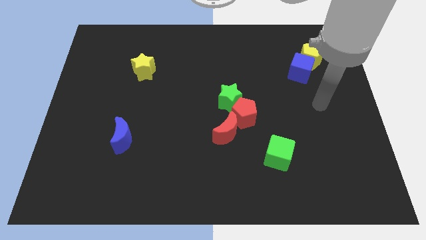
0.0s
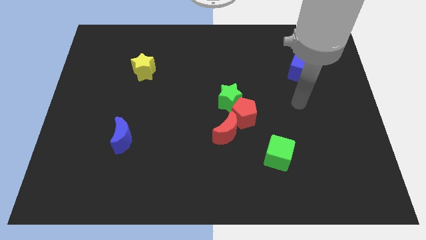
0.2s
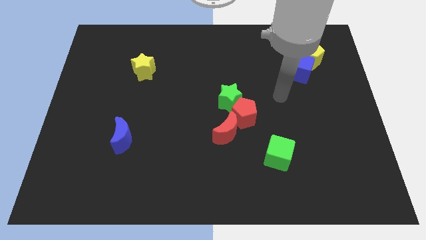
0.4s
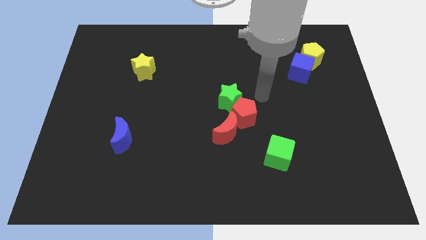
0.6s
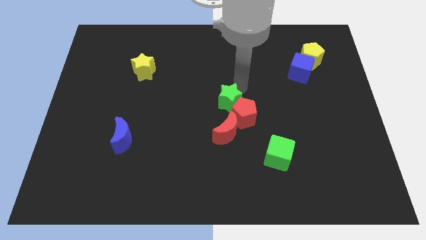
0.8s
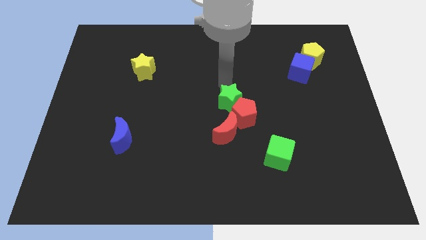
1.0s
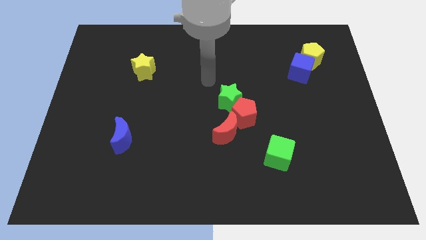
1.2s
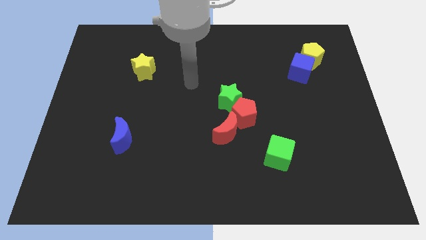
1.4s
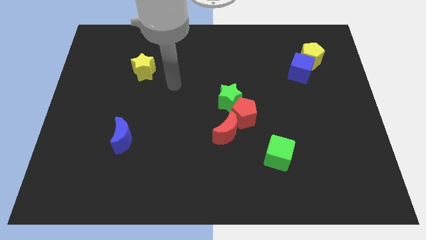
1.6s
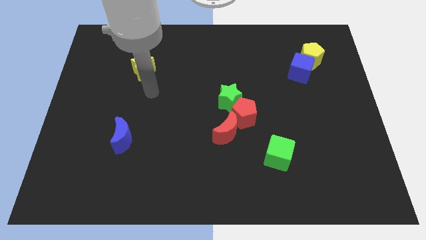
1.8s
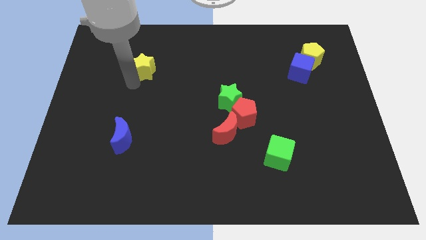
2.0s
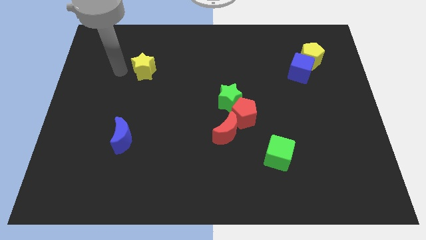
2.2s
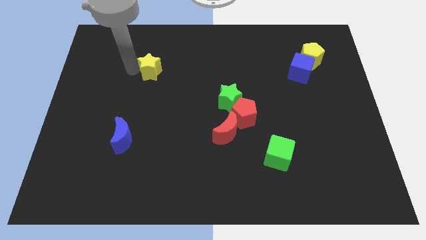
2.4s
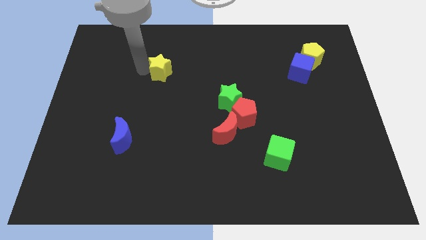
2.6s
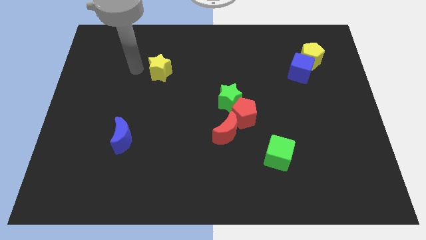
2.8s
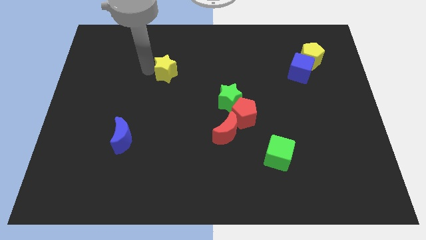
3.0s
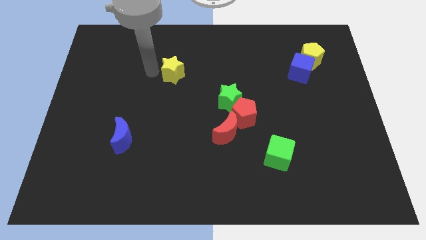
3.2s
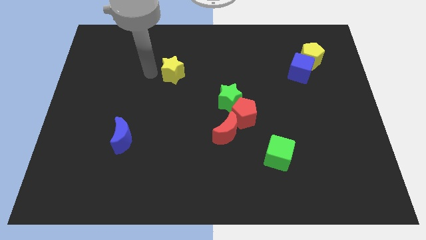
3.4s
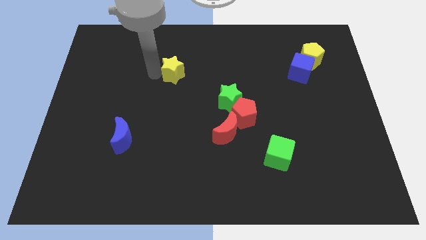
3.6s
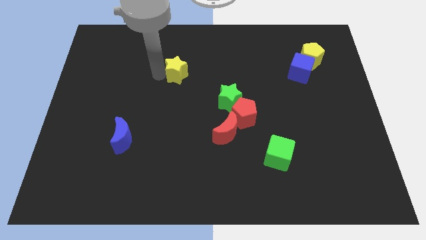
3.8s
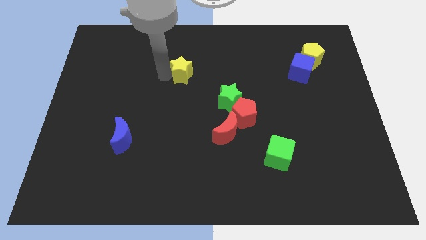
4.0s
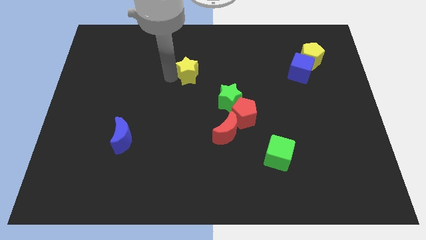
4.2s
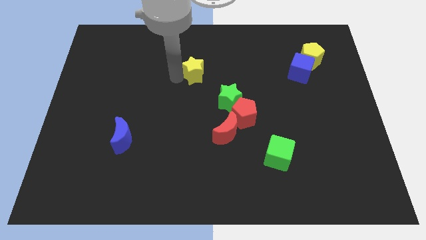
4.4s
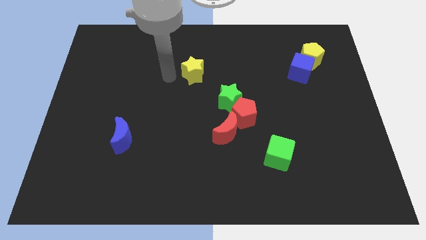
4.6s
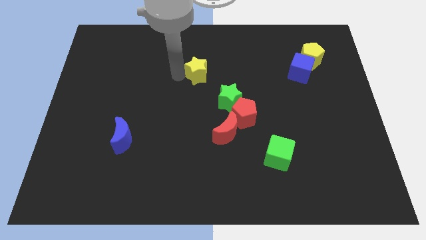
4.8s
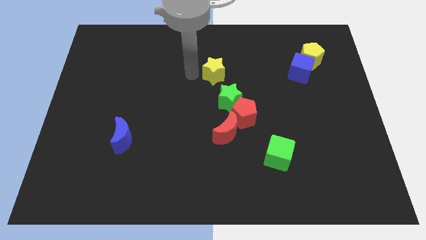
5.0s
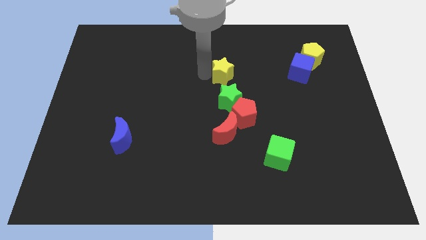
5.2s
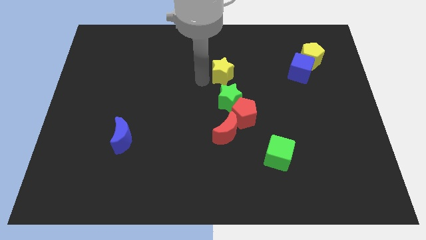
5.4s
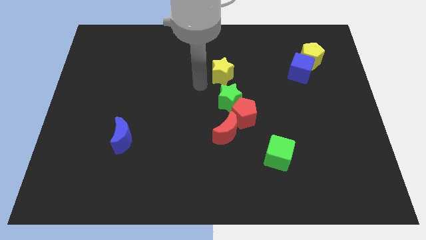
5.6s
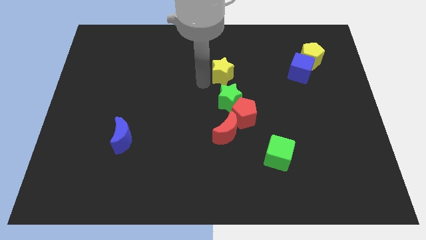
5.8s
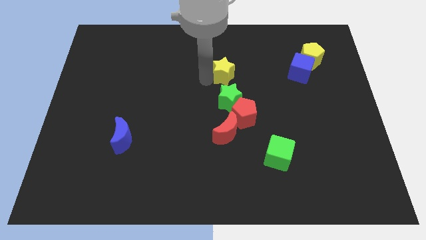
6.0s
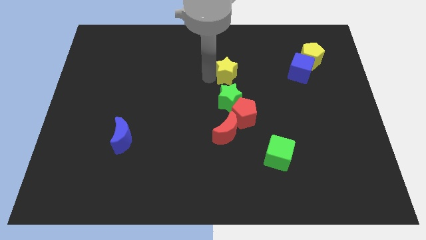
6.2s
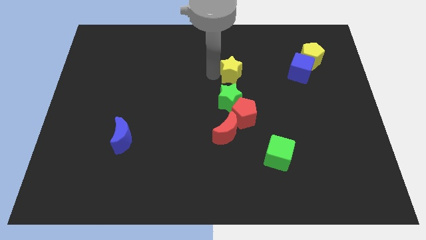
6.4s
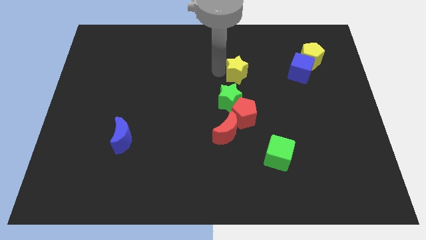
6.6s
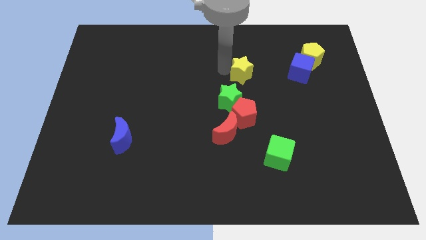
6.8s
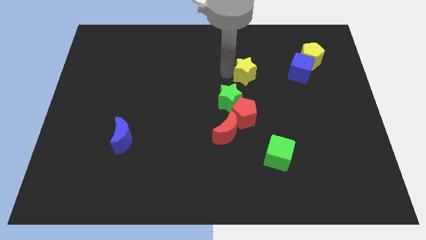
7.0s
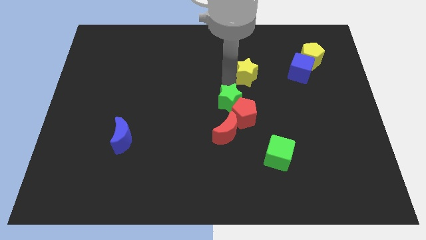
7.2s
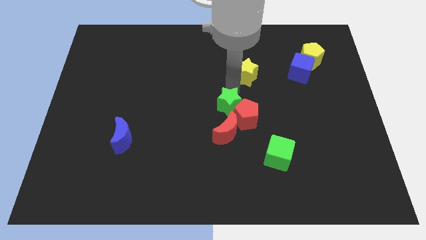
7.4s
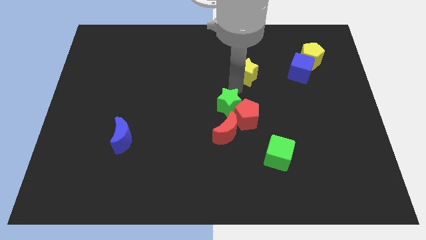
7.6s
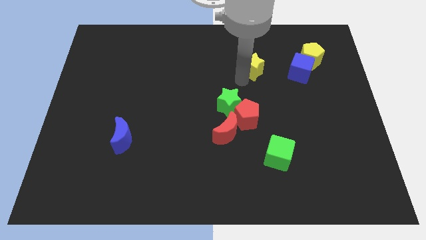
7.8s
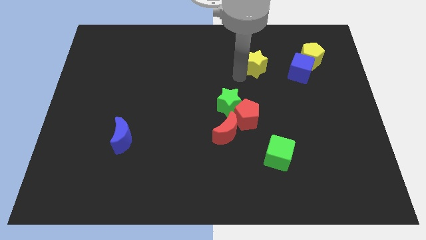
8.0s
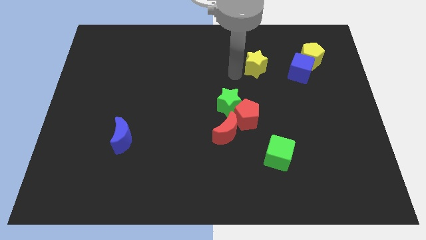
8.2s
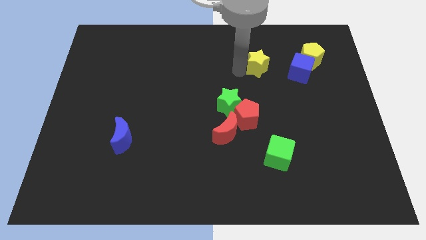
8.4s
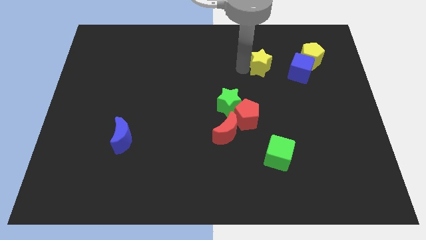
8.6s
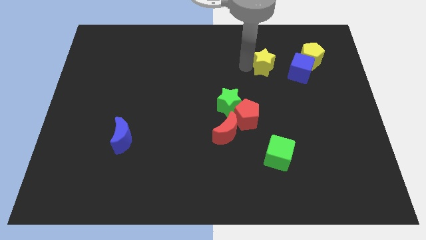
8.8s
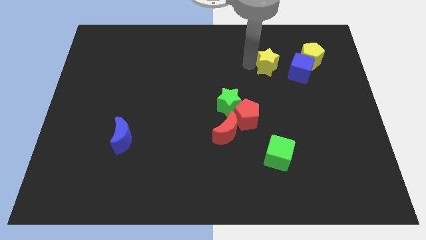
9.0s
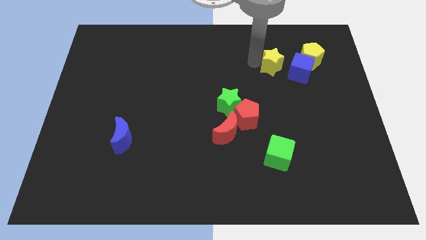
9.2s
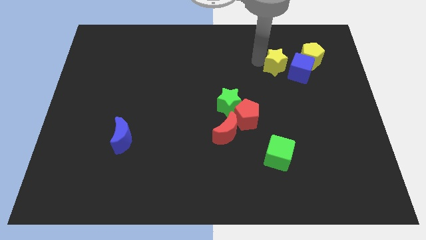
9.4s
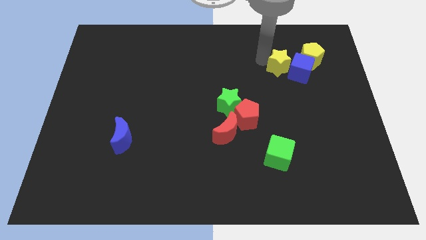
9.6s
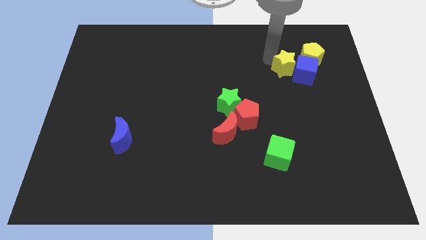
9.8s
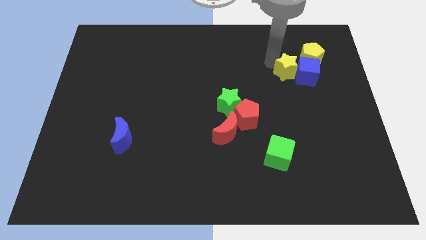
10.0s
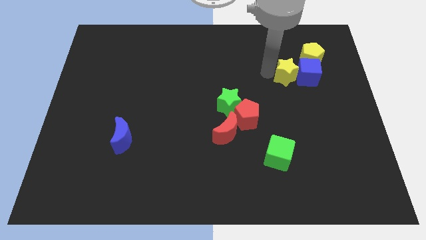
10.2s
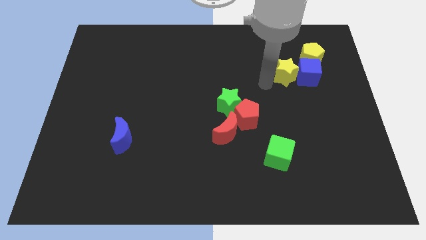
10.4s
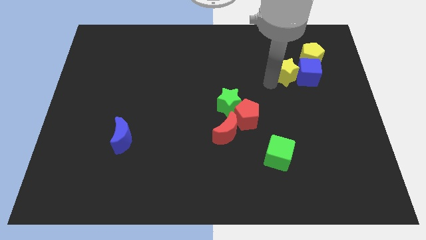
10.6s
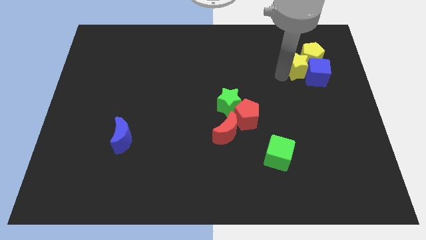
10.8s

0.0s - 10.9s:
push the yellow star towards the yellow pentagon

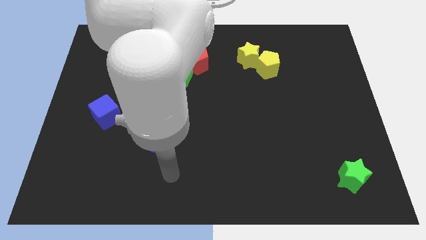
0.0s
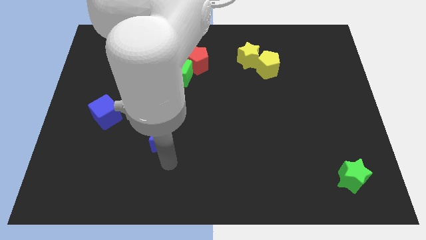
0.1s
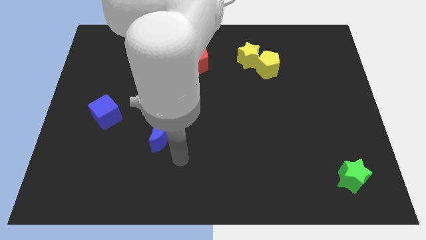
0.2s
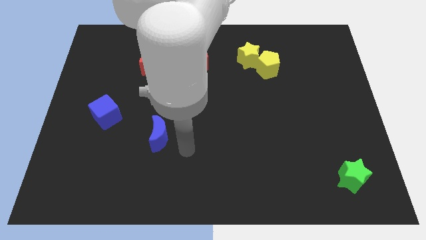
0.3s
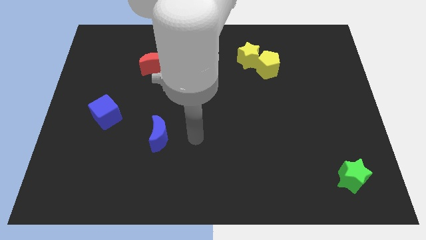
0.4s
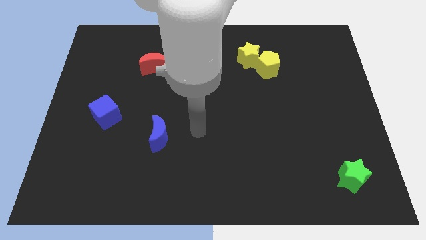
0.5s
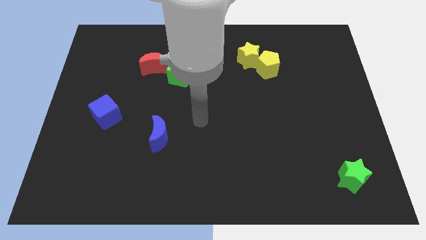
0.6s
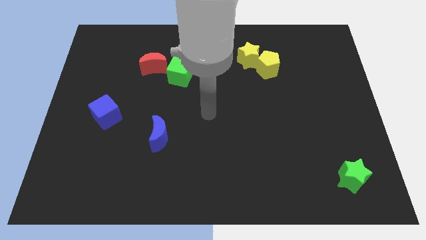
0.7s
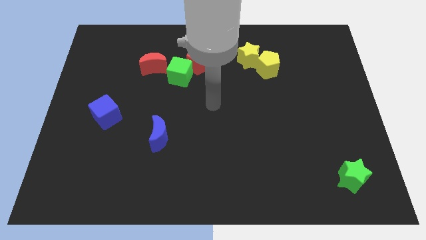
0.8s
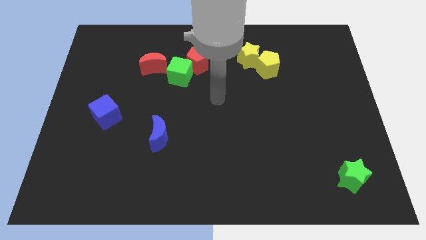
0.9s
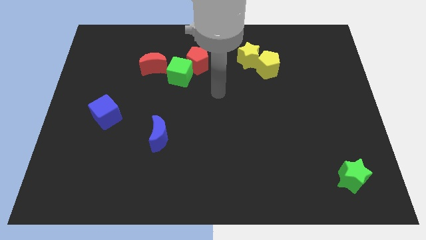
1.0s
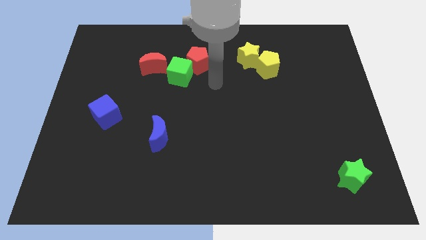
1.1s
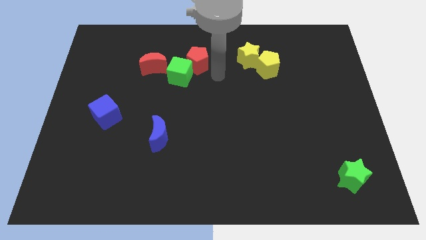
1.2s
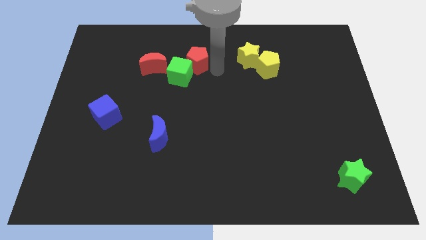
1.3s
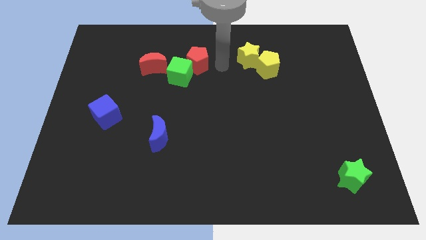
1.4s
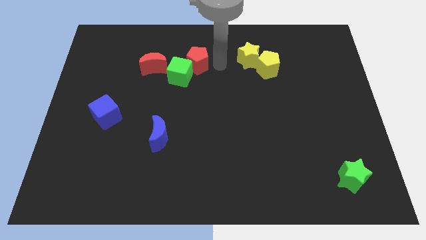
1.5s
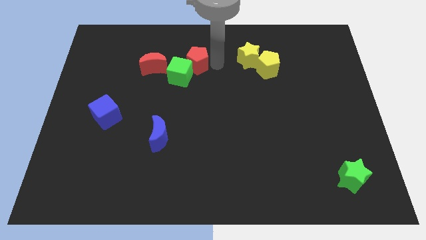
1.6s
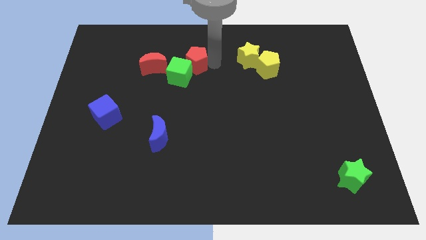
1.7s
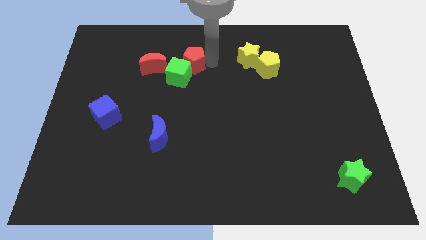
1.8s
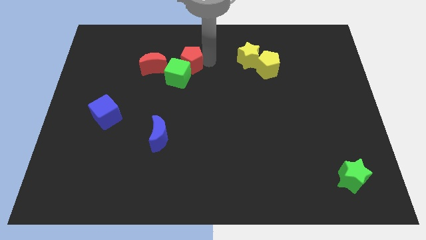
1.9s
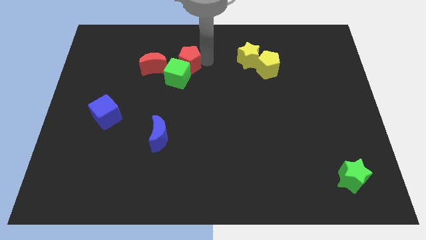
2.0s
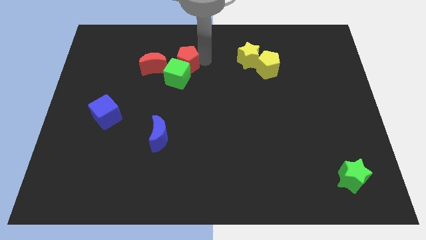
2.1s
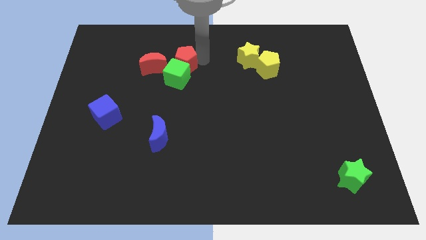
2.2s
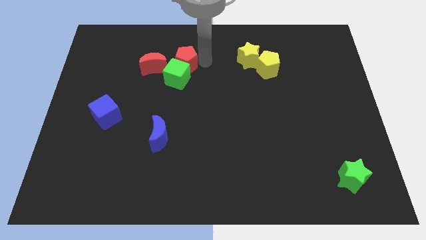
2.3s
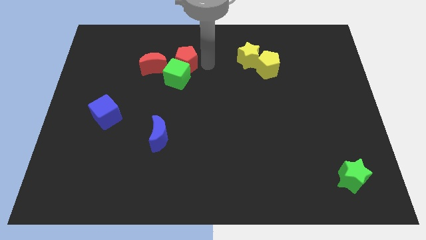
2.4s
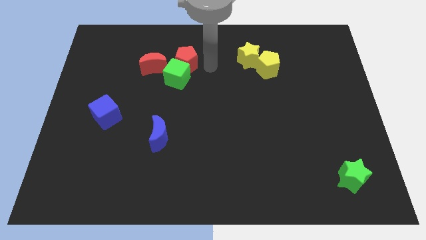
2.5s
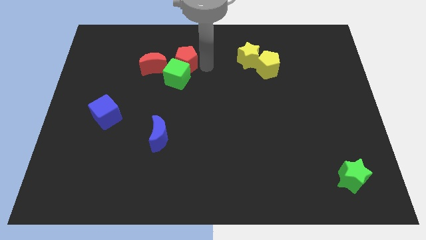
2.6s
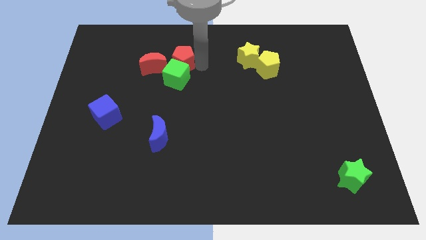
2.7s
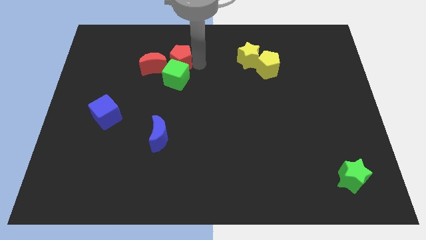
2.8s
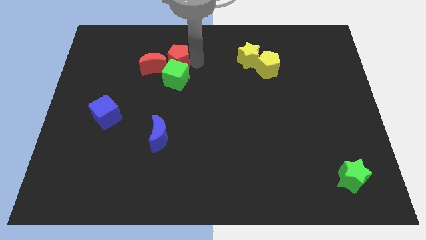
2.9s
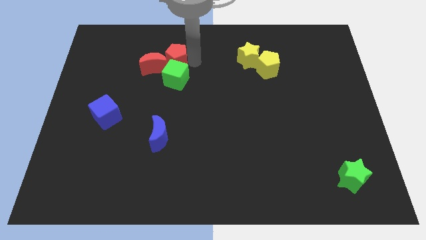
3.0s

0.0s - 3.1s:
put the red pentagon to the red moon
